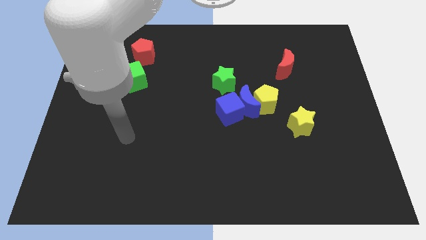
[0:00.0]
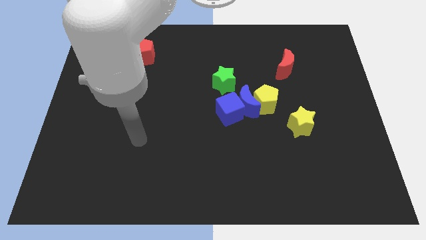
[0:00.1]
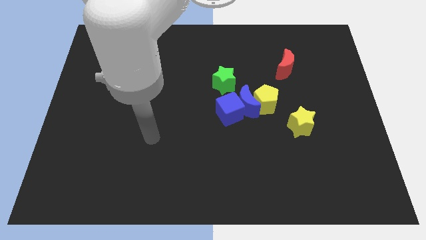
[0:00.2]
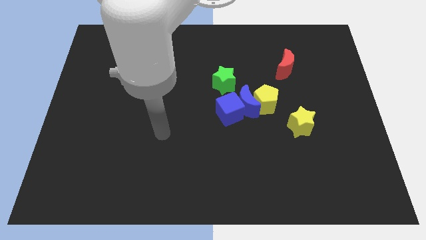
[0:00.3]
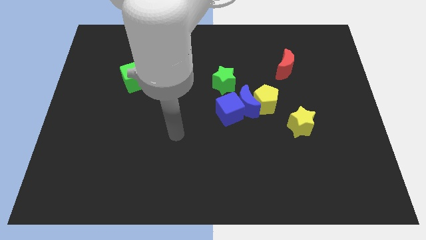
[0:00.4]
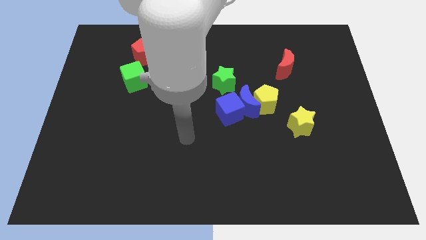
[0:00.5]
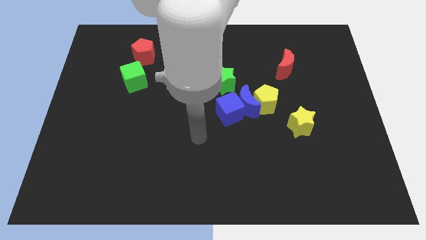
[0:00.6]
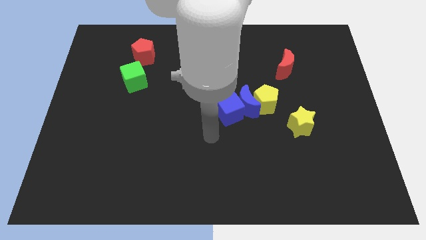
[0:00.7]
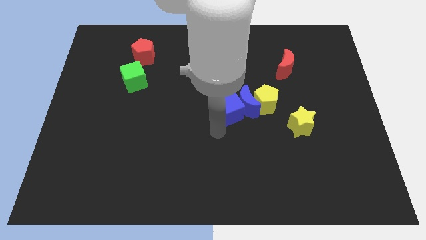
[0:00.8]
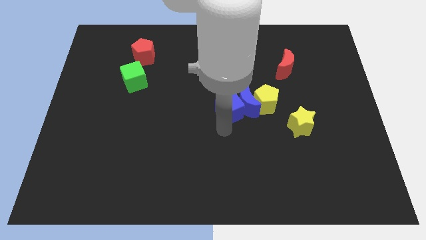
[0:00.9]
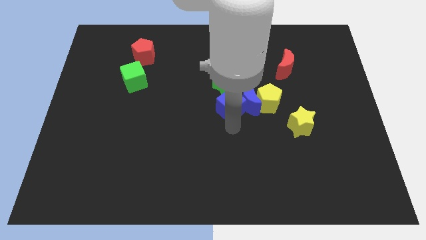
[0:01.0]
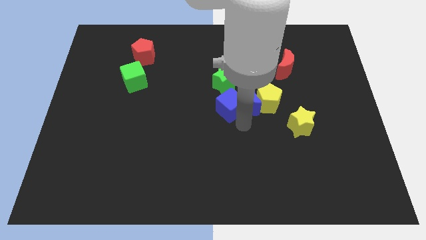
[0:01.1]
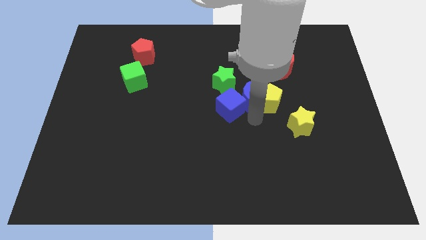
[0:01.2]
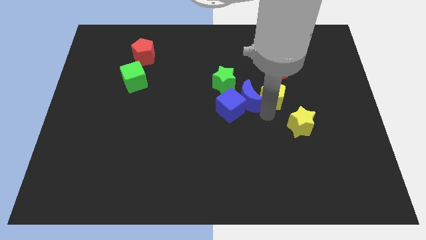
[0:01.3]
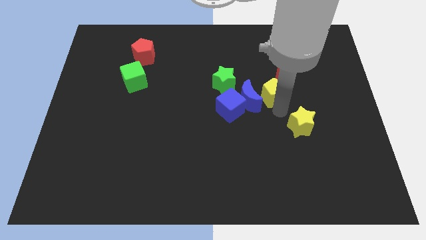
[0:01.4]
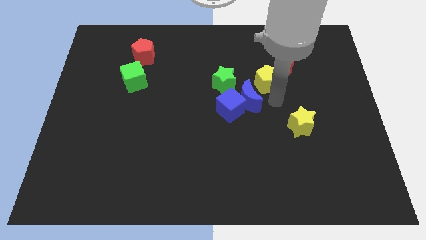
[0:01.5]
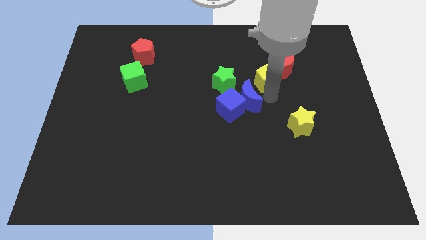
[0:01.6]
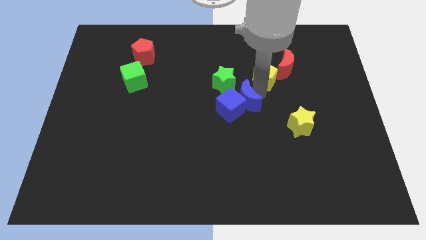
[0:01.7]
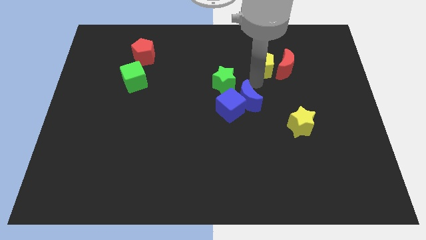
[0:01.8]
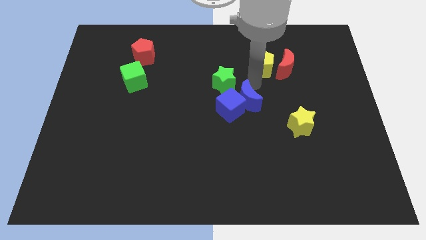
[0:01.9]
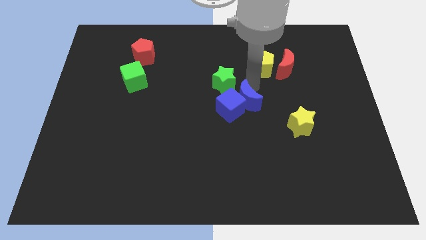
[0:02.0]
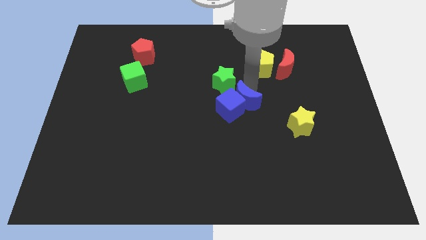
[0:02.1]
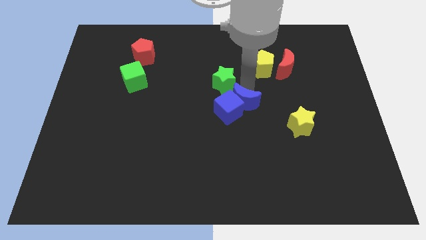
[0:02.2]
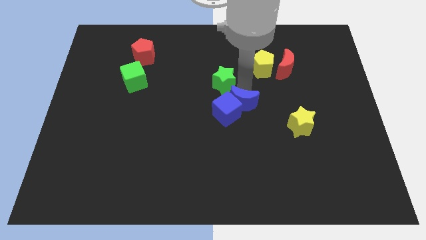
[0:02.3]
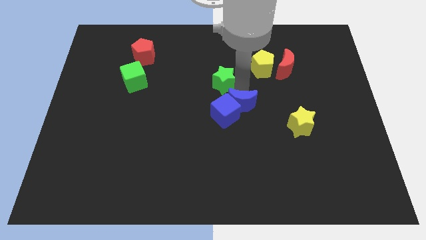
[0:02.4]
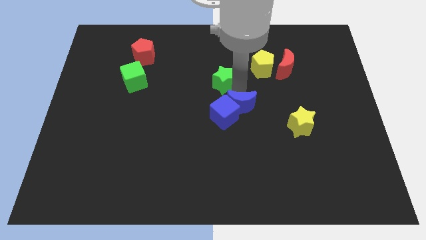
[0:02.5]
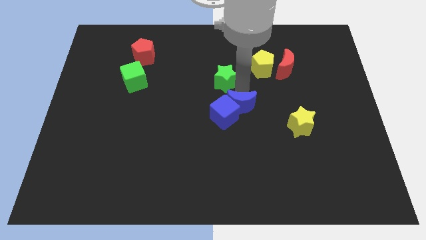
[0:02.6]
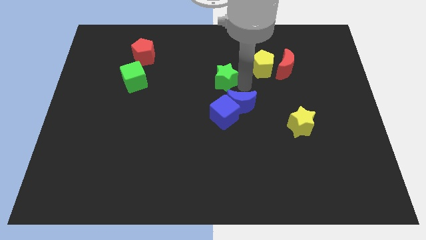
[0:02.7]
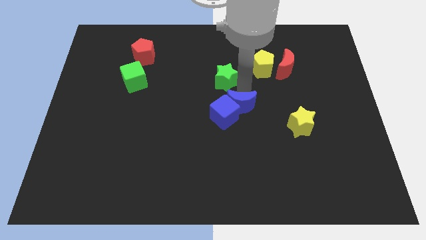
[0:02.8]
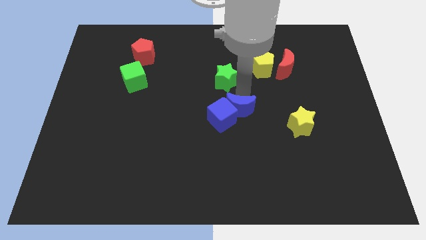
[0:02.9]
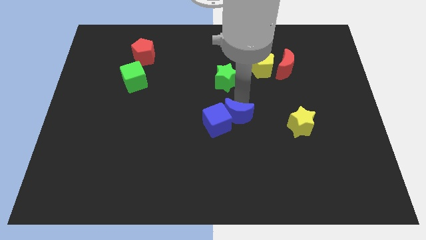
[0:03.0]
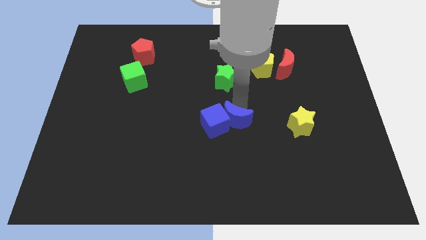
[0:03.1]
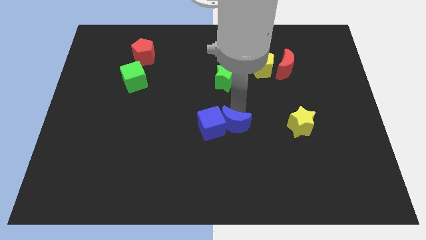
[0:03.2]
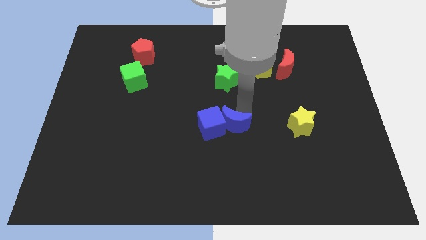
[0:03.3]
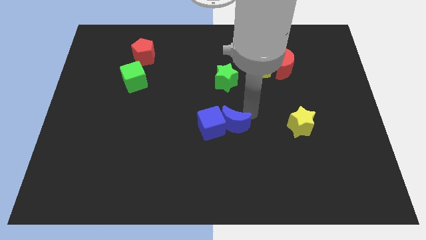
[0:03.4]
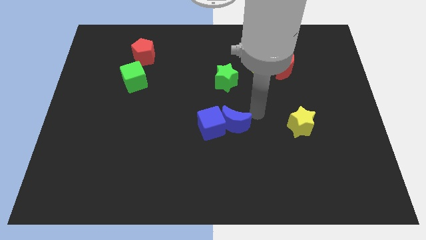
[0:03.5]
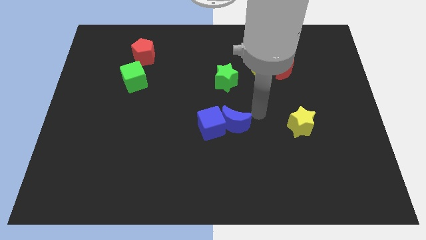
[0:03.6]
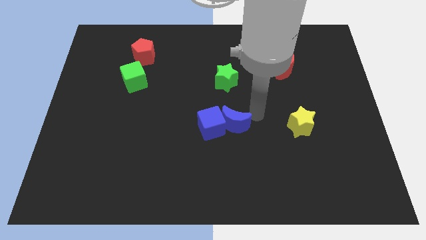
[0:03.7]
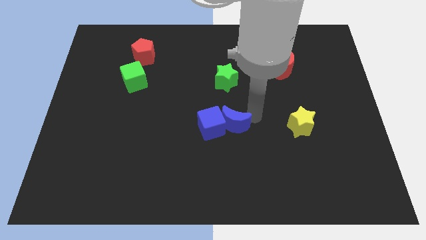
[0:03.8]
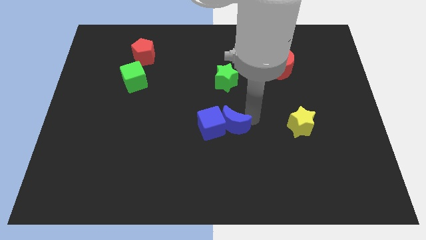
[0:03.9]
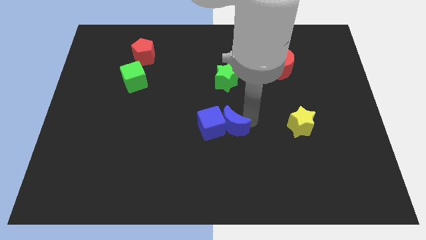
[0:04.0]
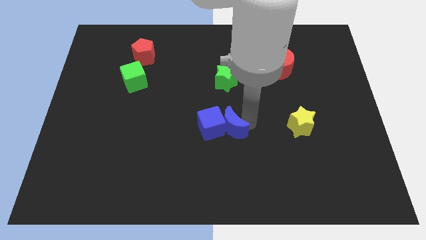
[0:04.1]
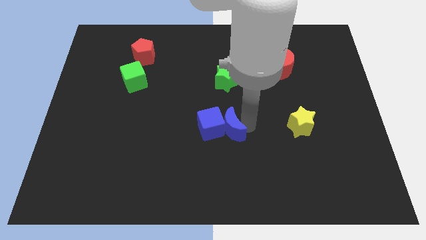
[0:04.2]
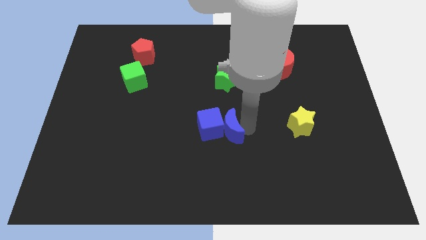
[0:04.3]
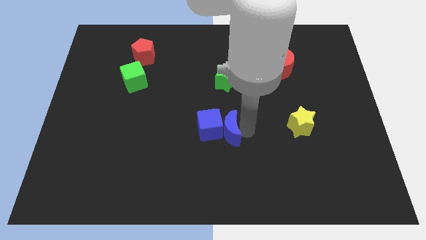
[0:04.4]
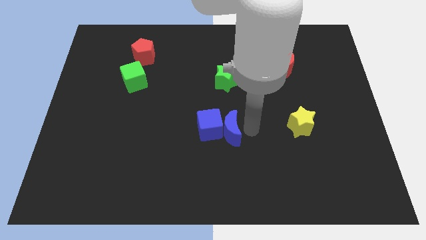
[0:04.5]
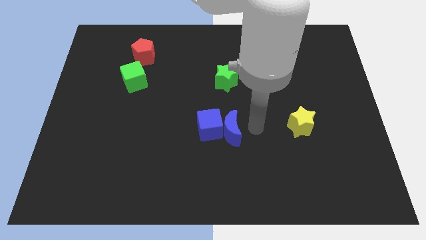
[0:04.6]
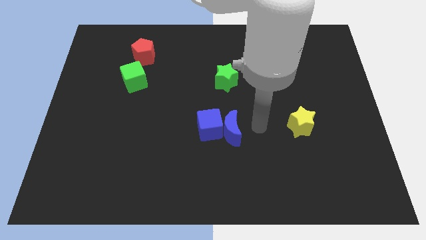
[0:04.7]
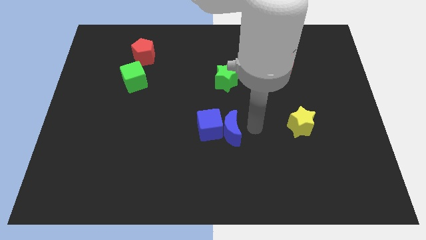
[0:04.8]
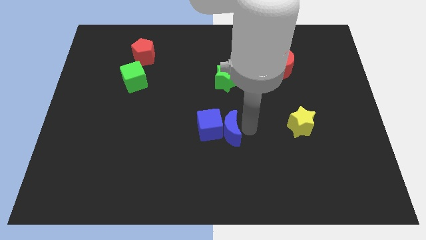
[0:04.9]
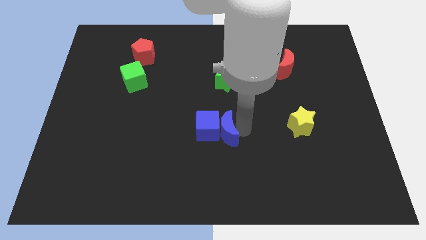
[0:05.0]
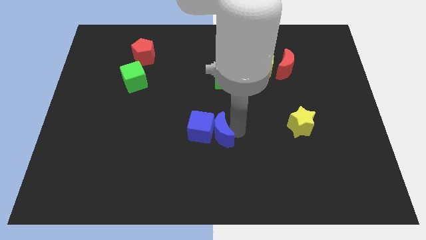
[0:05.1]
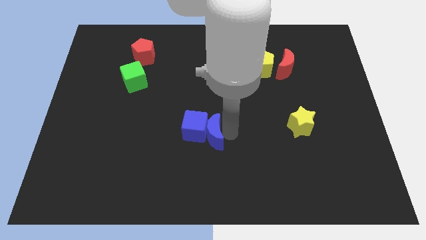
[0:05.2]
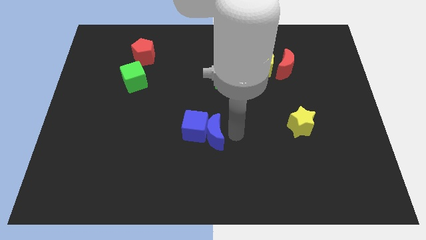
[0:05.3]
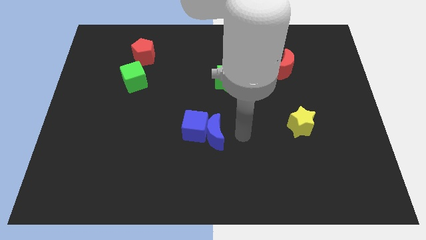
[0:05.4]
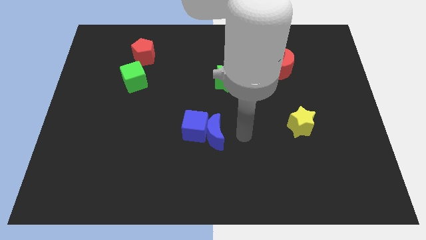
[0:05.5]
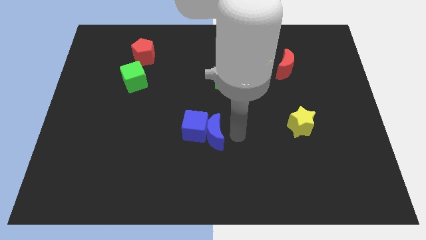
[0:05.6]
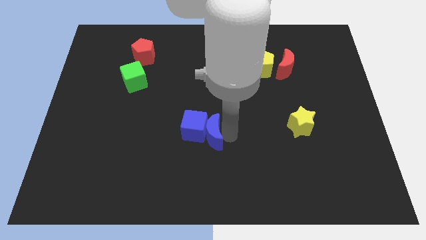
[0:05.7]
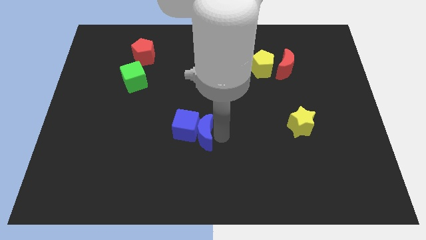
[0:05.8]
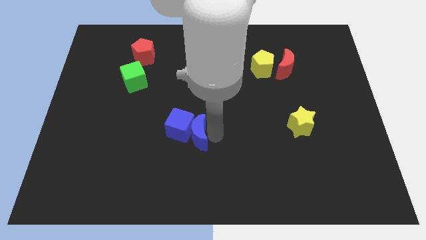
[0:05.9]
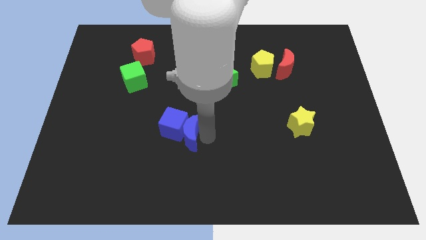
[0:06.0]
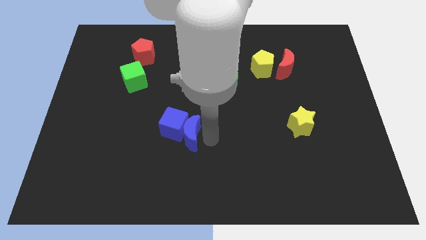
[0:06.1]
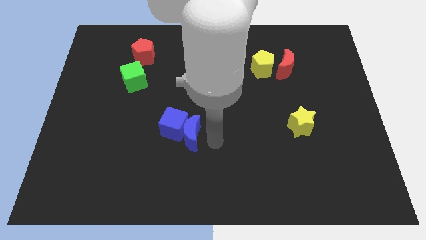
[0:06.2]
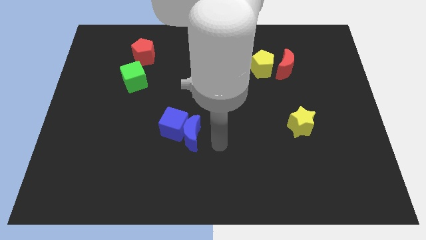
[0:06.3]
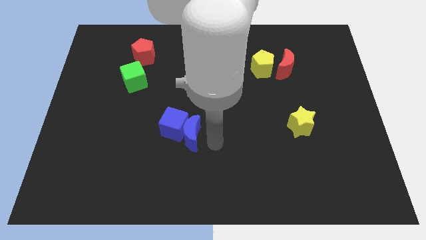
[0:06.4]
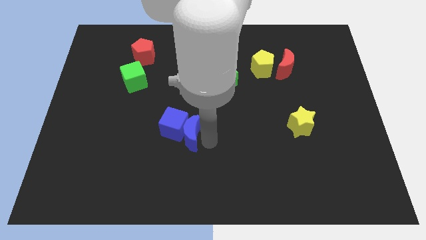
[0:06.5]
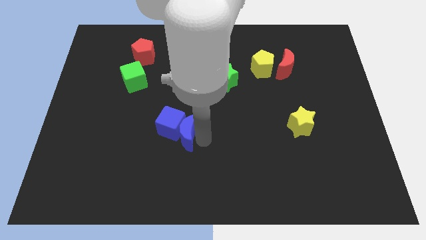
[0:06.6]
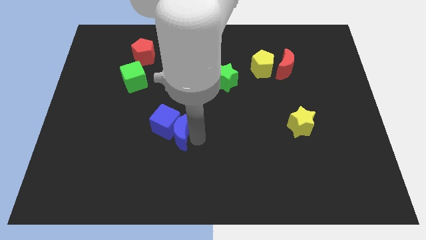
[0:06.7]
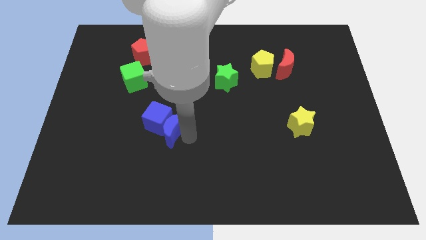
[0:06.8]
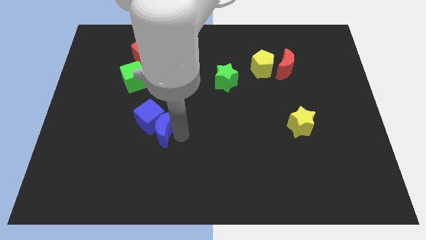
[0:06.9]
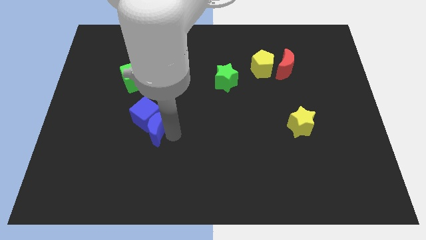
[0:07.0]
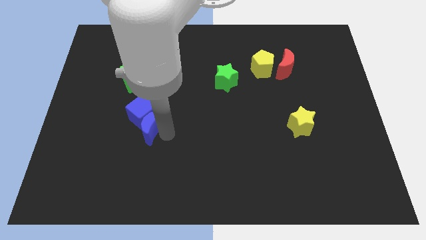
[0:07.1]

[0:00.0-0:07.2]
slide the blue moon left

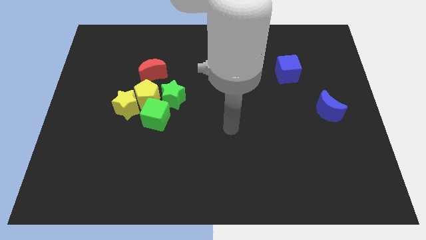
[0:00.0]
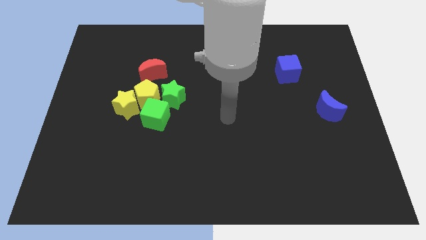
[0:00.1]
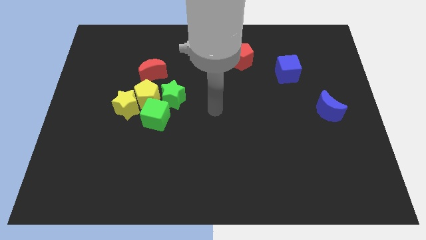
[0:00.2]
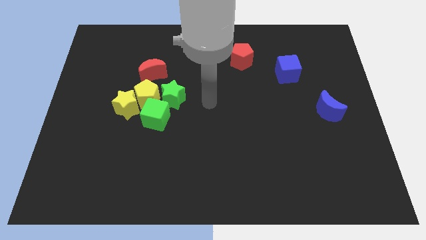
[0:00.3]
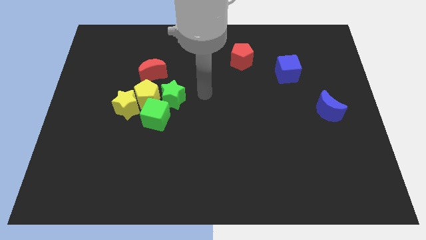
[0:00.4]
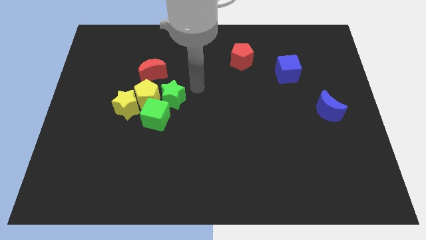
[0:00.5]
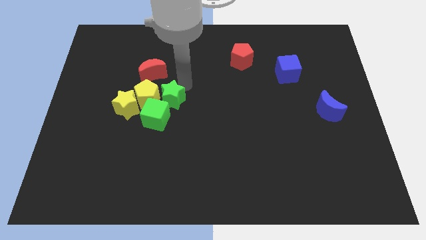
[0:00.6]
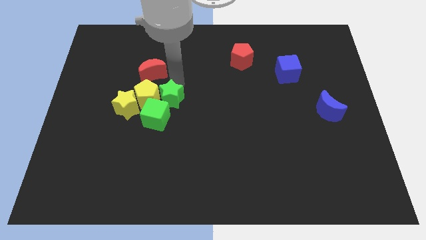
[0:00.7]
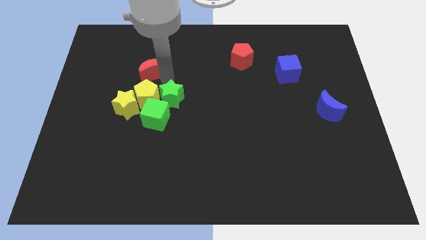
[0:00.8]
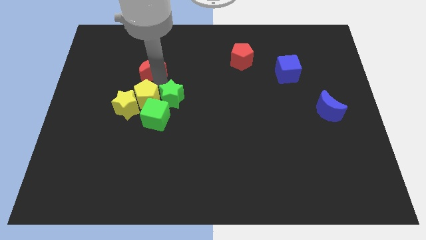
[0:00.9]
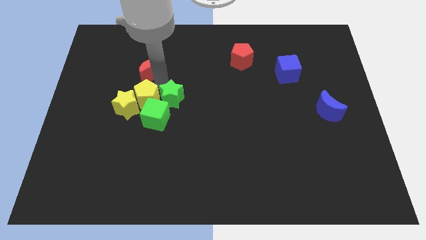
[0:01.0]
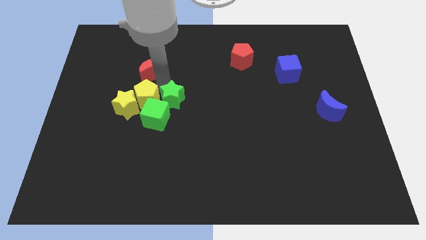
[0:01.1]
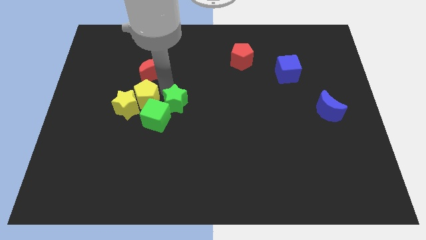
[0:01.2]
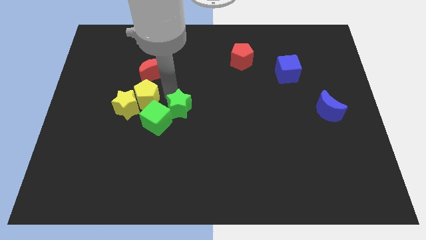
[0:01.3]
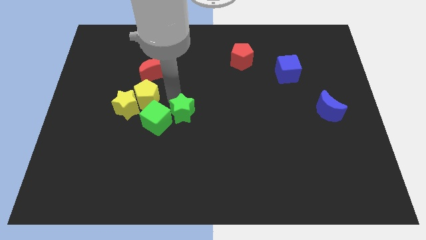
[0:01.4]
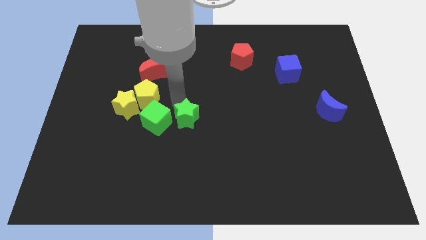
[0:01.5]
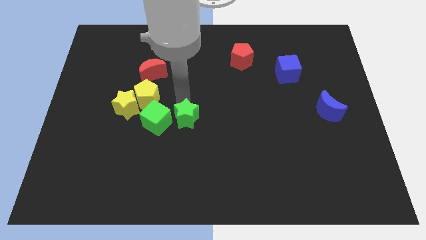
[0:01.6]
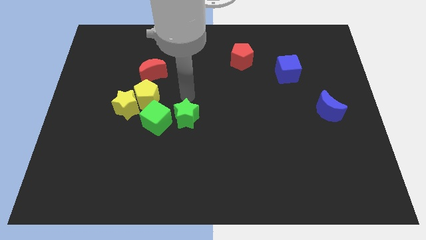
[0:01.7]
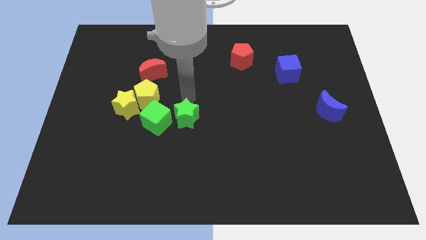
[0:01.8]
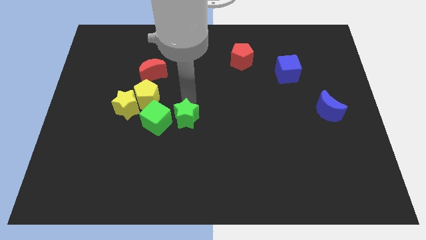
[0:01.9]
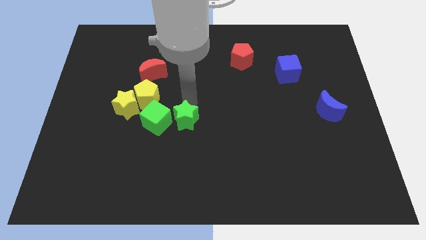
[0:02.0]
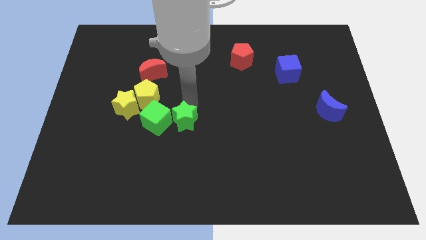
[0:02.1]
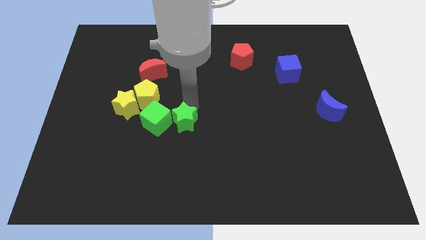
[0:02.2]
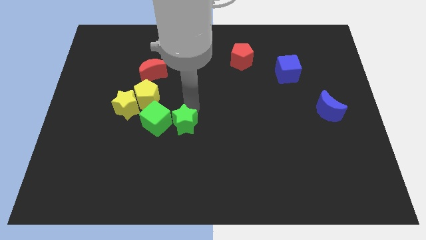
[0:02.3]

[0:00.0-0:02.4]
slightly slide the green star downwards
